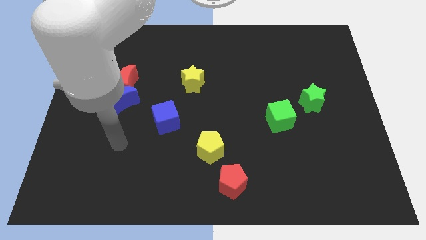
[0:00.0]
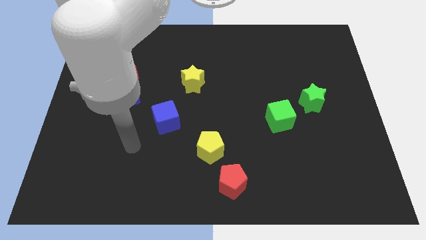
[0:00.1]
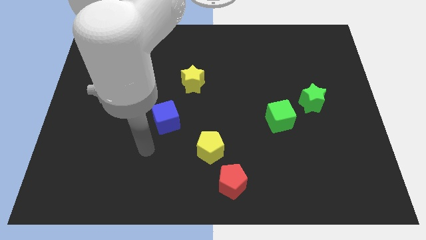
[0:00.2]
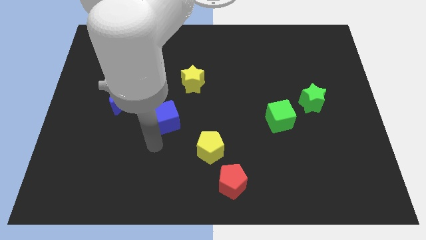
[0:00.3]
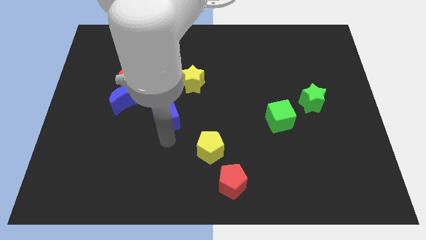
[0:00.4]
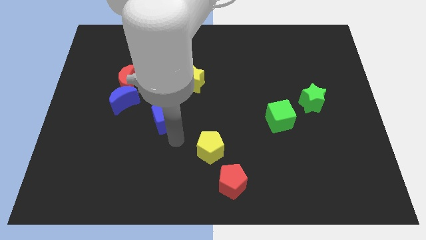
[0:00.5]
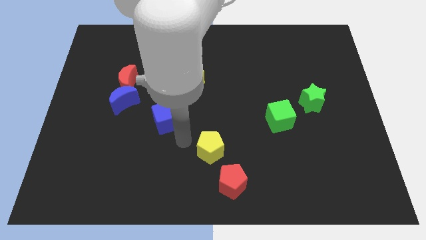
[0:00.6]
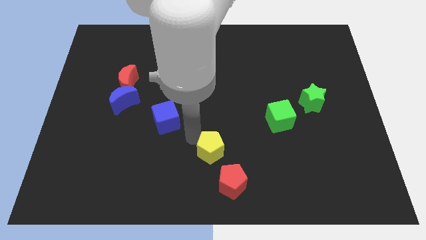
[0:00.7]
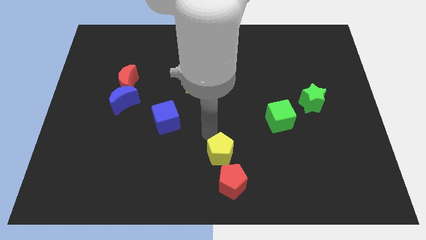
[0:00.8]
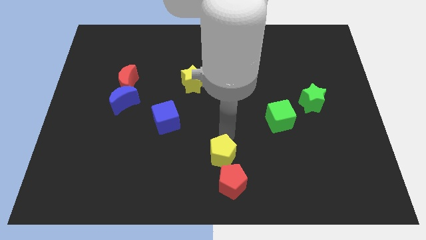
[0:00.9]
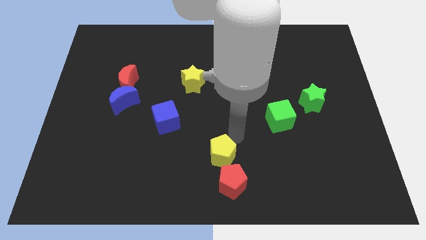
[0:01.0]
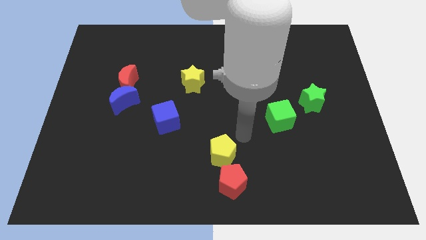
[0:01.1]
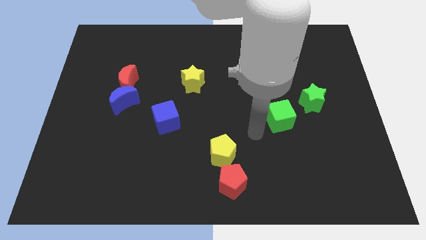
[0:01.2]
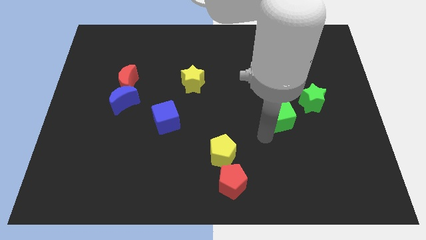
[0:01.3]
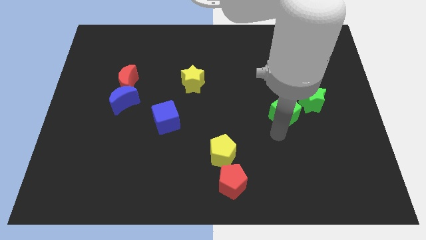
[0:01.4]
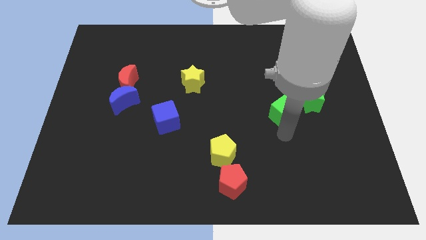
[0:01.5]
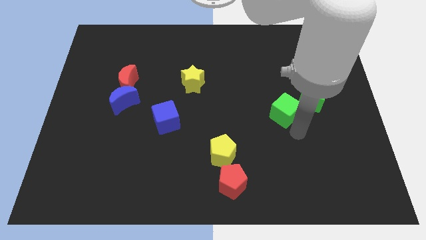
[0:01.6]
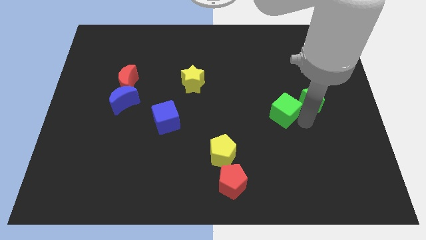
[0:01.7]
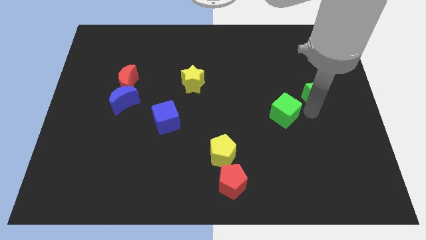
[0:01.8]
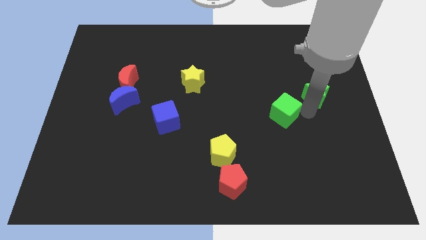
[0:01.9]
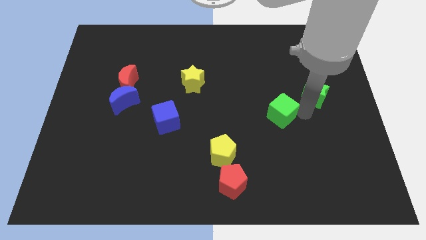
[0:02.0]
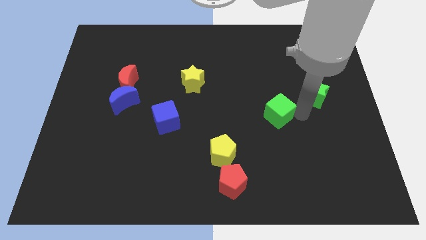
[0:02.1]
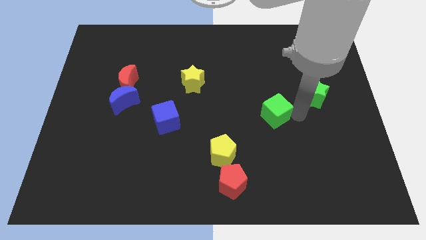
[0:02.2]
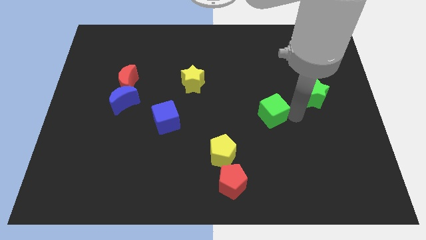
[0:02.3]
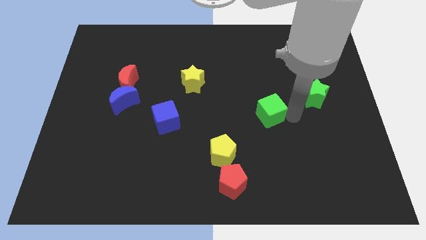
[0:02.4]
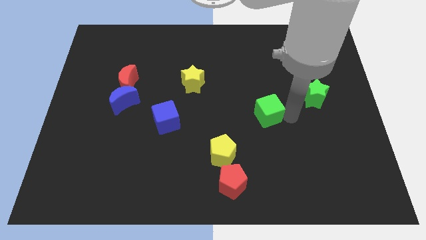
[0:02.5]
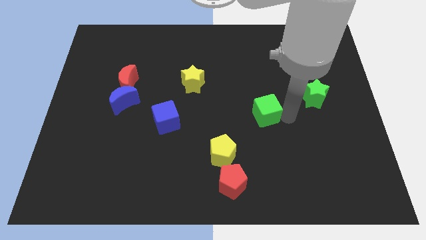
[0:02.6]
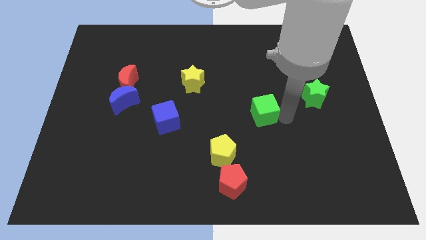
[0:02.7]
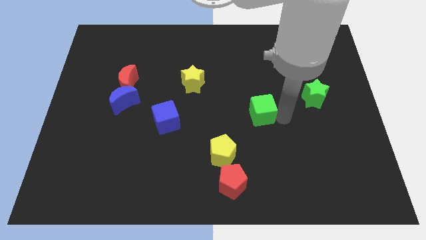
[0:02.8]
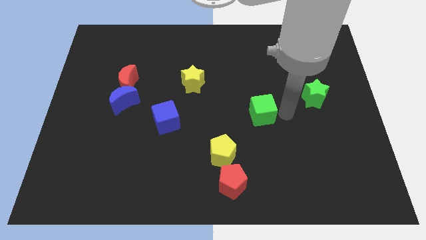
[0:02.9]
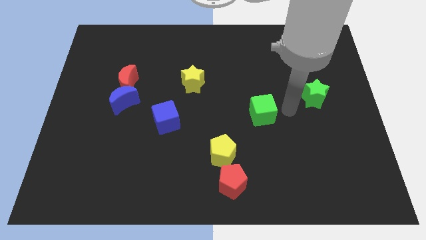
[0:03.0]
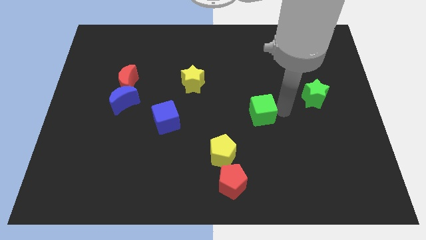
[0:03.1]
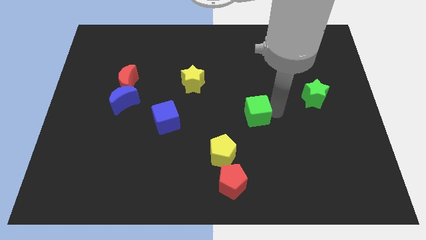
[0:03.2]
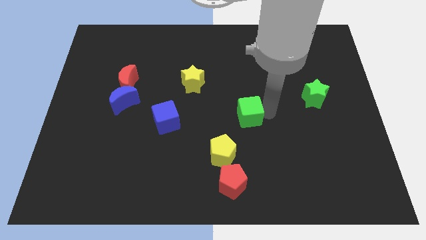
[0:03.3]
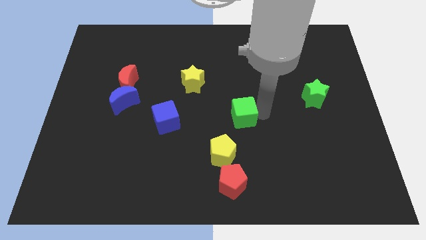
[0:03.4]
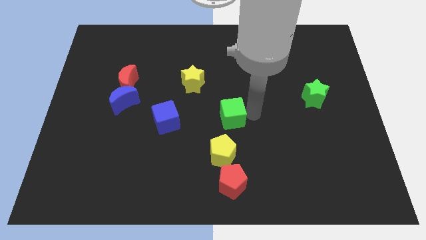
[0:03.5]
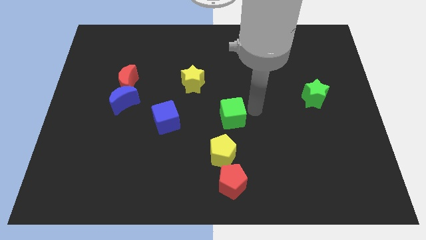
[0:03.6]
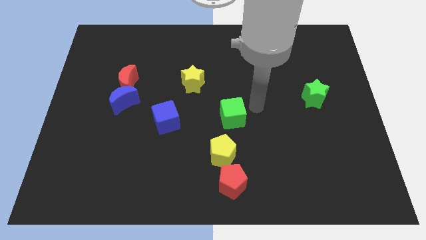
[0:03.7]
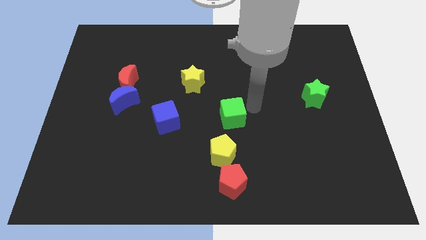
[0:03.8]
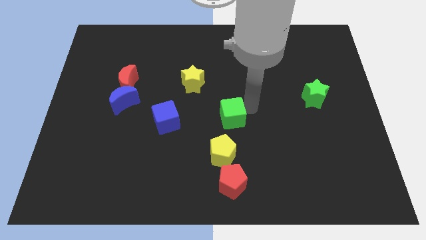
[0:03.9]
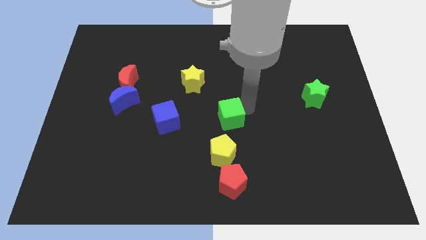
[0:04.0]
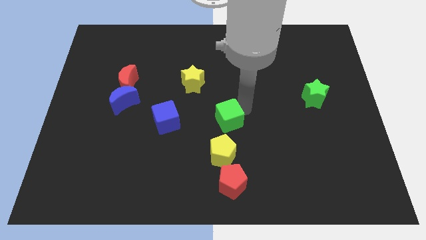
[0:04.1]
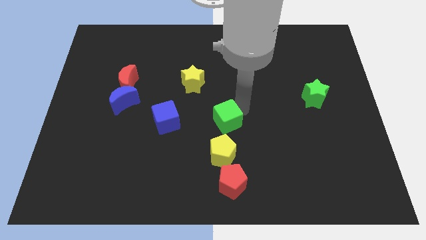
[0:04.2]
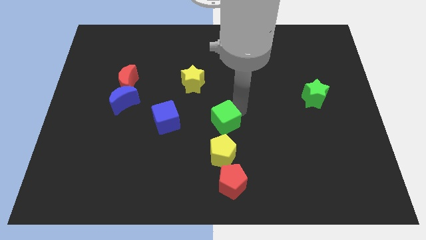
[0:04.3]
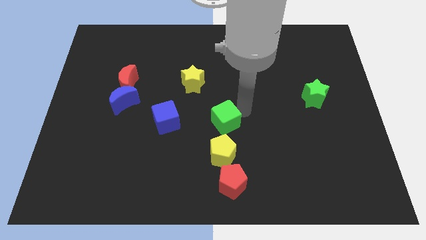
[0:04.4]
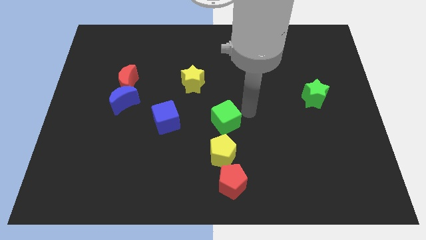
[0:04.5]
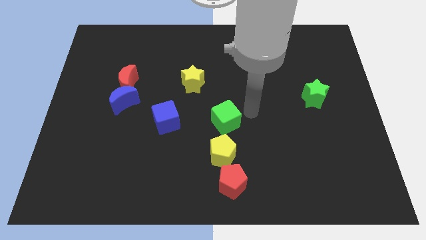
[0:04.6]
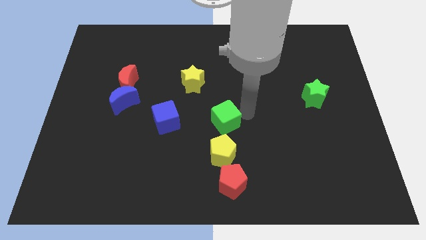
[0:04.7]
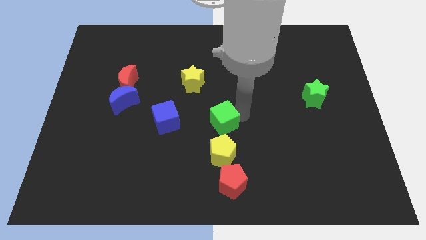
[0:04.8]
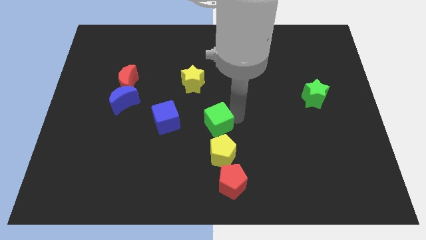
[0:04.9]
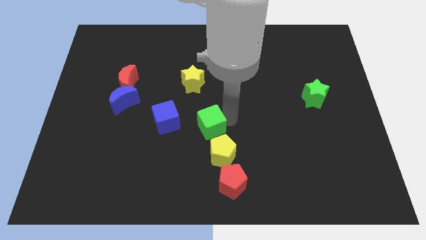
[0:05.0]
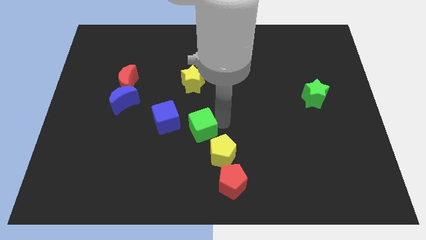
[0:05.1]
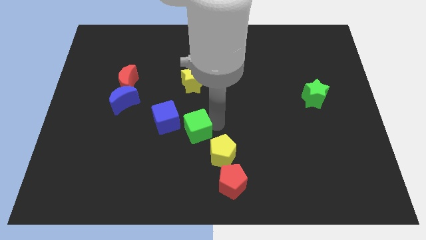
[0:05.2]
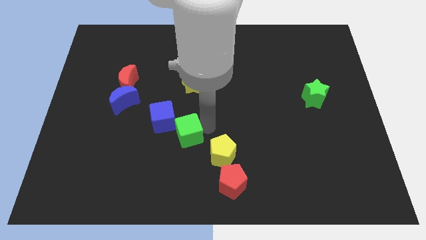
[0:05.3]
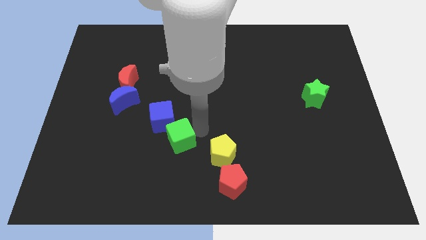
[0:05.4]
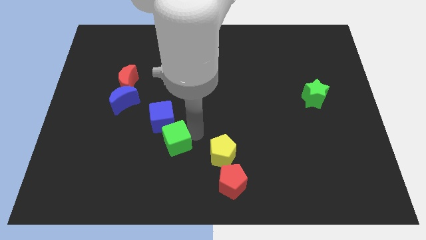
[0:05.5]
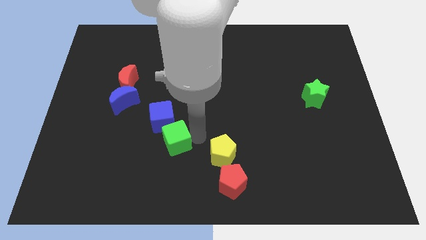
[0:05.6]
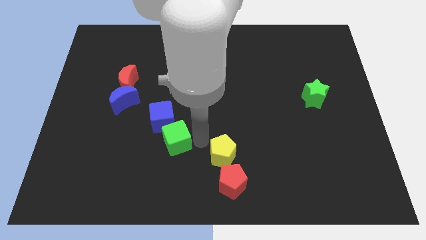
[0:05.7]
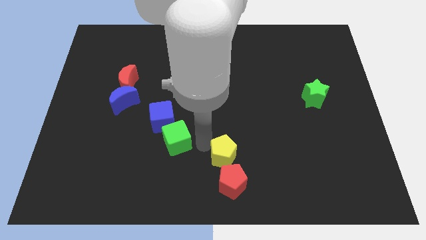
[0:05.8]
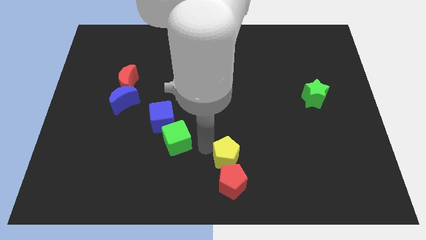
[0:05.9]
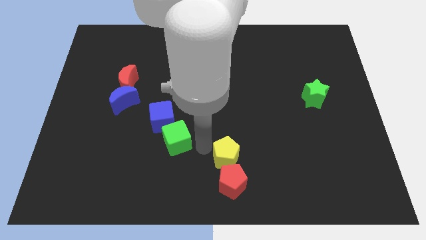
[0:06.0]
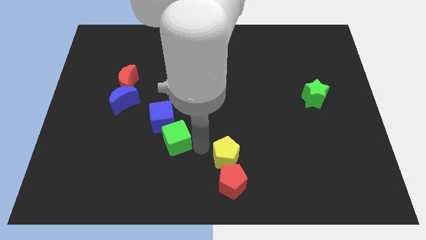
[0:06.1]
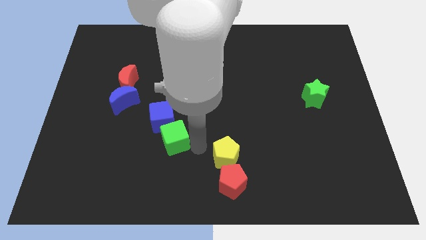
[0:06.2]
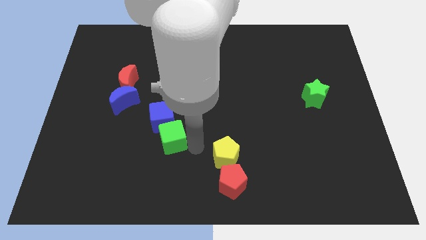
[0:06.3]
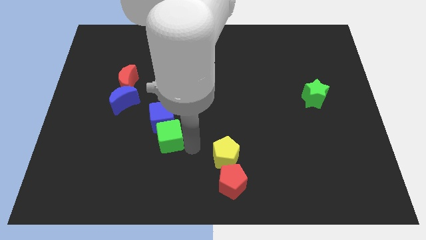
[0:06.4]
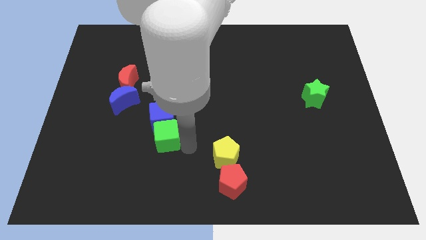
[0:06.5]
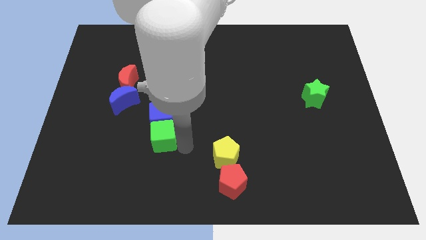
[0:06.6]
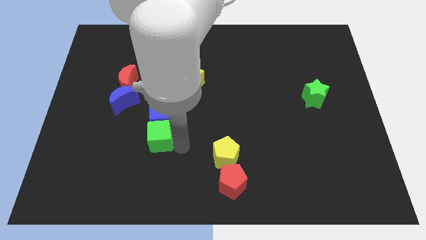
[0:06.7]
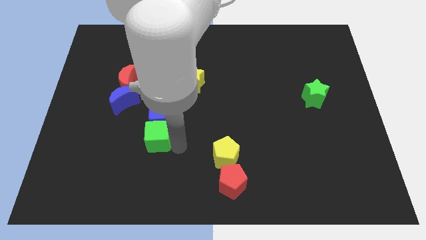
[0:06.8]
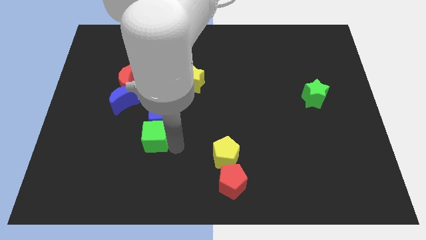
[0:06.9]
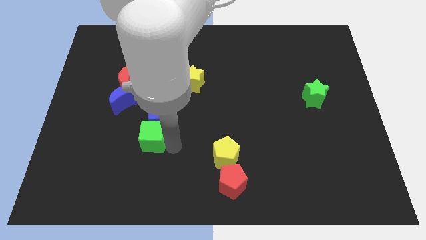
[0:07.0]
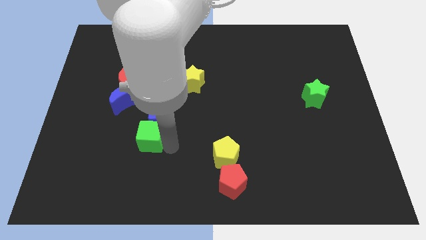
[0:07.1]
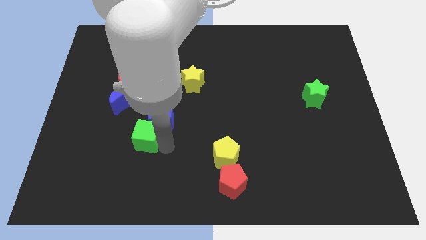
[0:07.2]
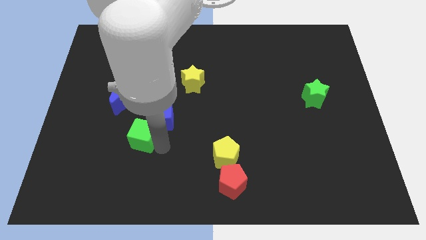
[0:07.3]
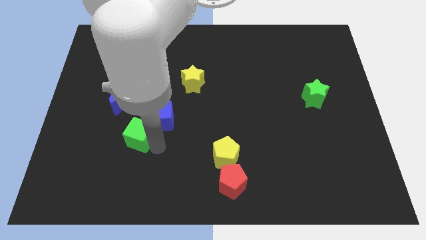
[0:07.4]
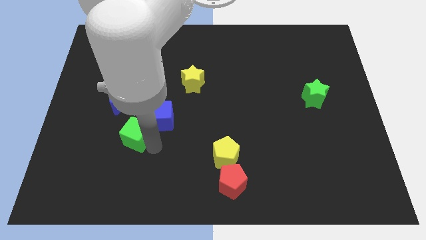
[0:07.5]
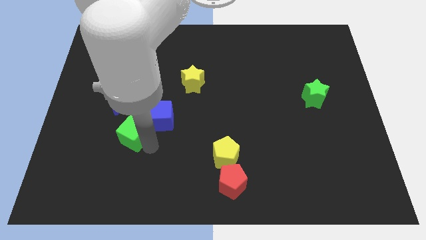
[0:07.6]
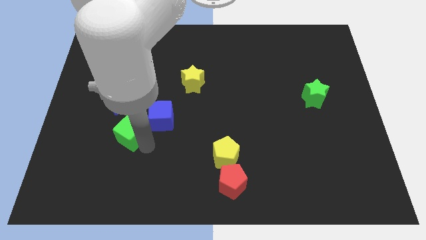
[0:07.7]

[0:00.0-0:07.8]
move the green cube to the bottom of the red moon

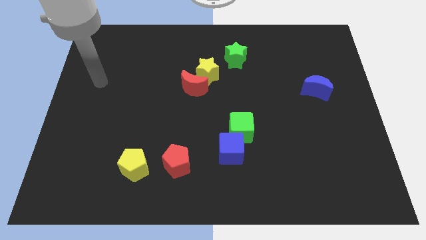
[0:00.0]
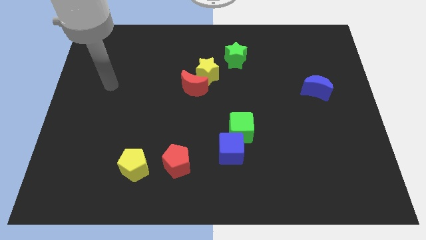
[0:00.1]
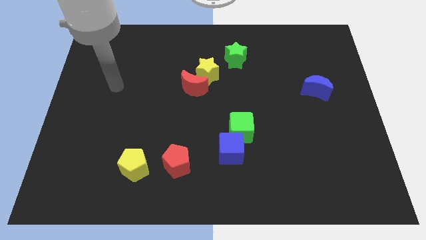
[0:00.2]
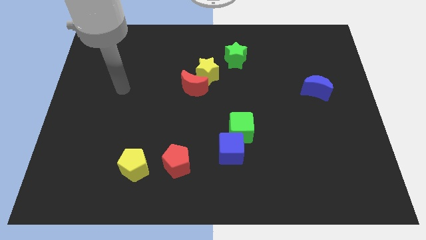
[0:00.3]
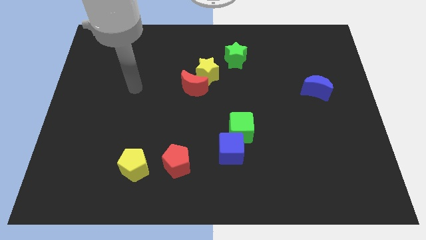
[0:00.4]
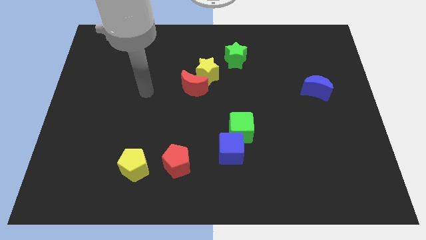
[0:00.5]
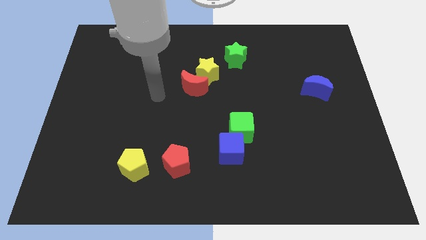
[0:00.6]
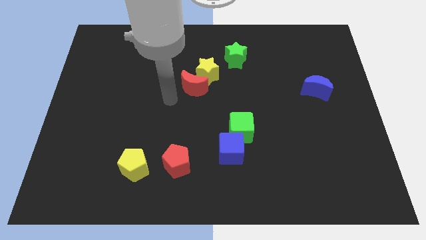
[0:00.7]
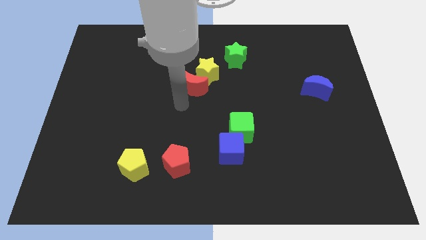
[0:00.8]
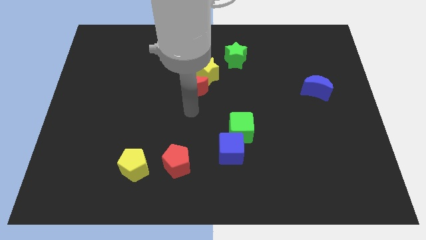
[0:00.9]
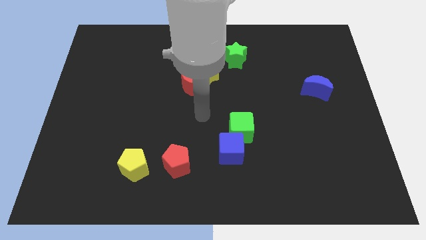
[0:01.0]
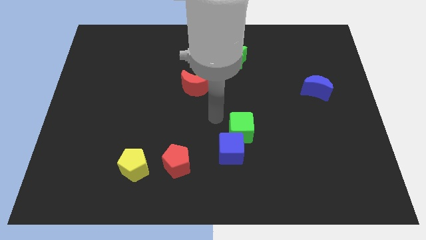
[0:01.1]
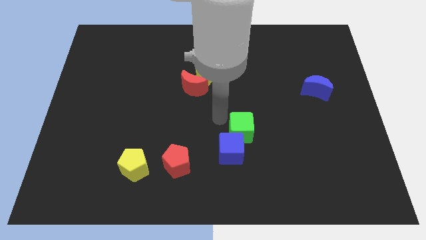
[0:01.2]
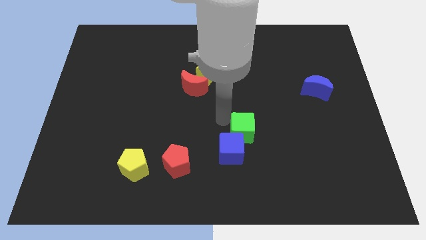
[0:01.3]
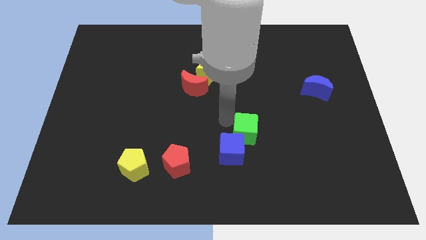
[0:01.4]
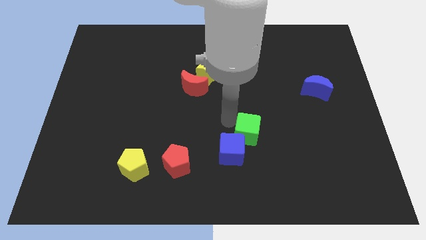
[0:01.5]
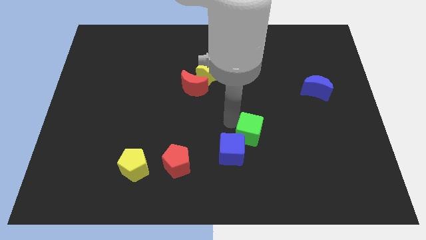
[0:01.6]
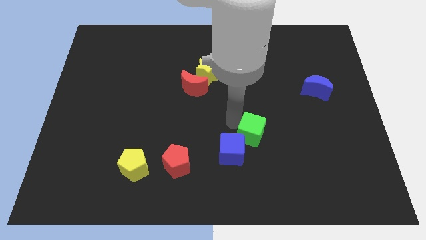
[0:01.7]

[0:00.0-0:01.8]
move the green cube to the right side of the blue cube
